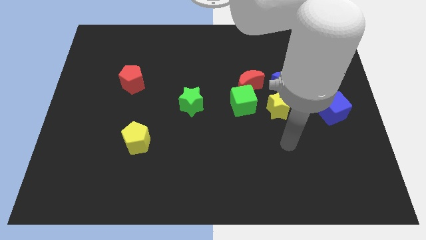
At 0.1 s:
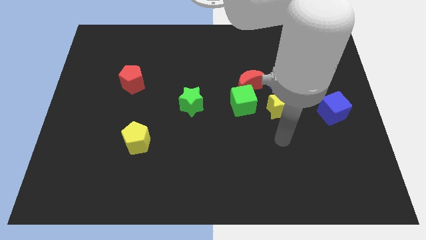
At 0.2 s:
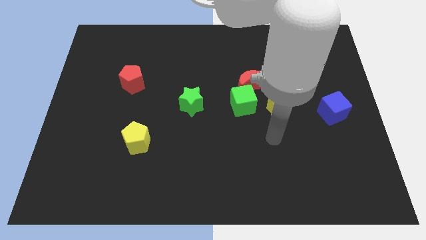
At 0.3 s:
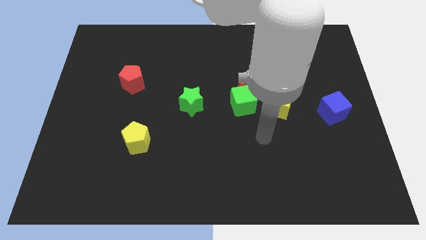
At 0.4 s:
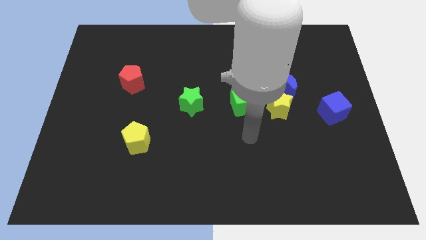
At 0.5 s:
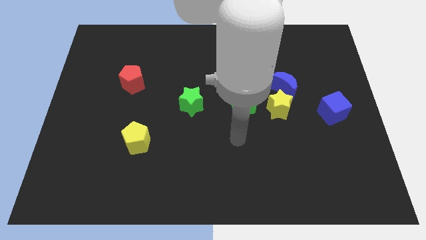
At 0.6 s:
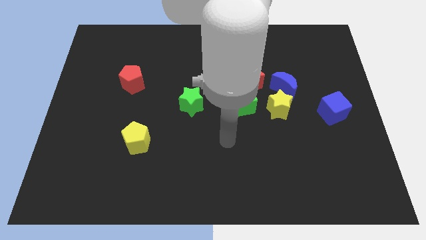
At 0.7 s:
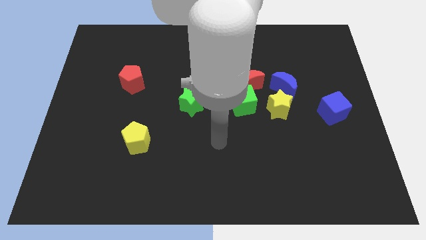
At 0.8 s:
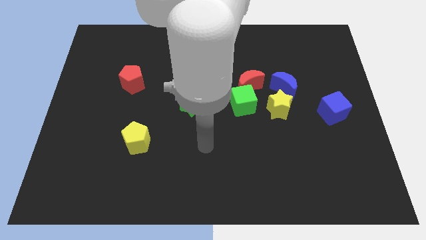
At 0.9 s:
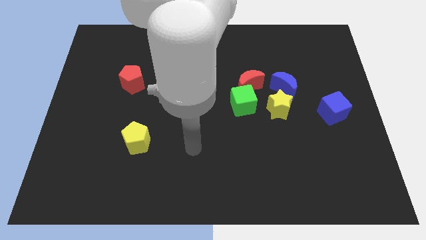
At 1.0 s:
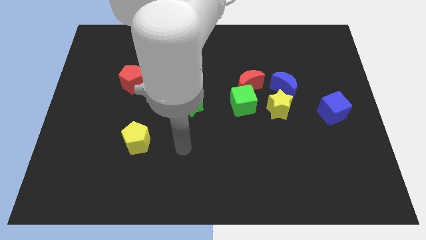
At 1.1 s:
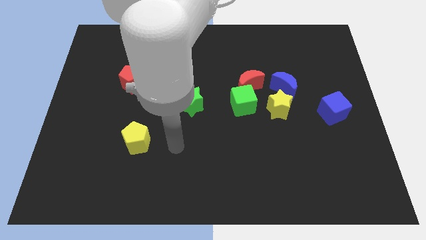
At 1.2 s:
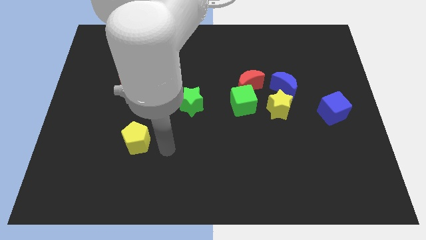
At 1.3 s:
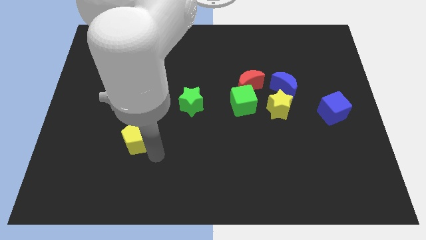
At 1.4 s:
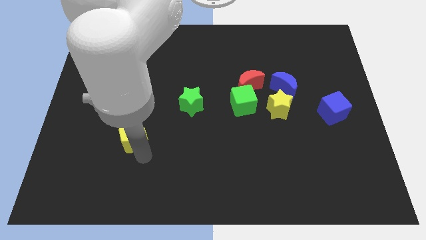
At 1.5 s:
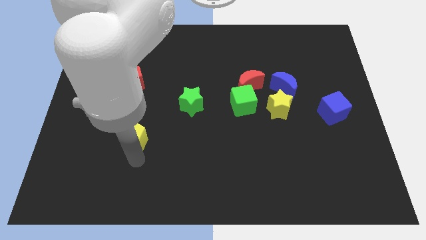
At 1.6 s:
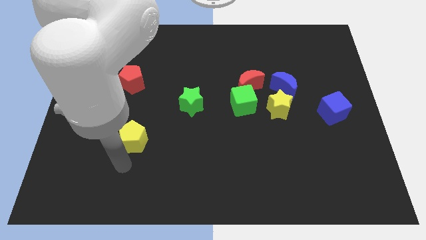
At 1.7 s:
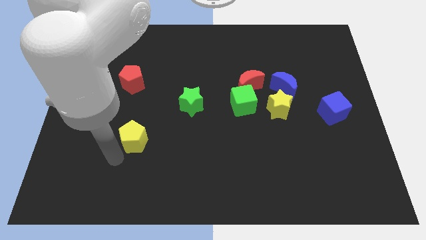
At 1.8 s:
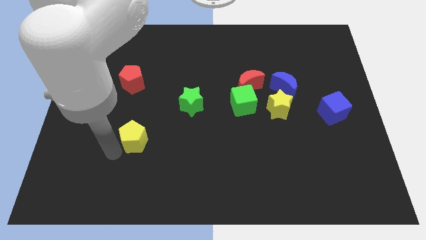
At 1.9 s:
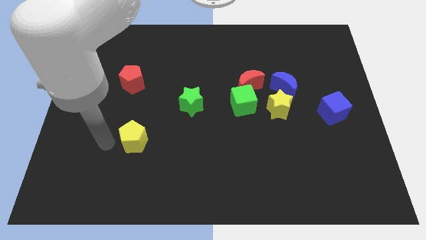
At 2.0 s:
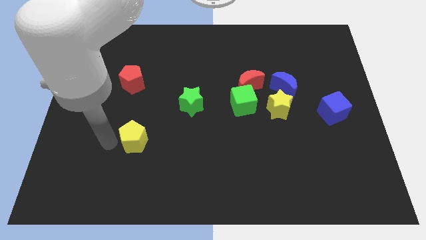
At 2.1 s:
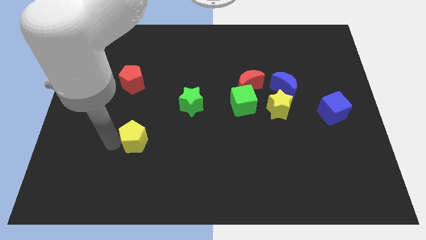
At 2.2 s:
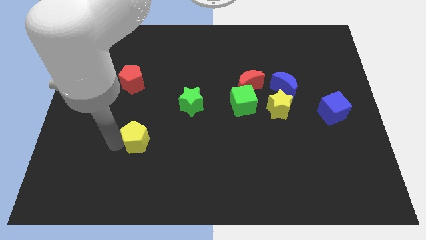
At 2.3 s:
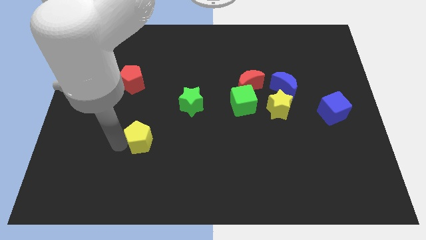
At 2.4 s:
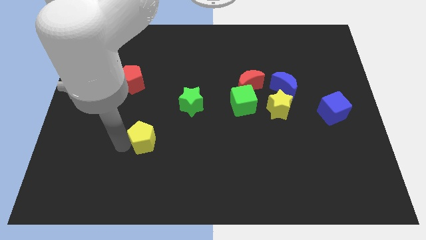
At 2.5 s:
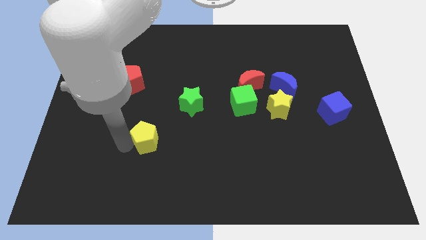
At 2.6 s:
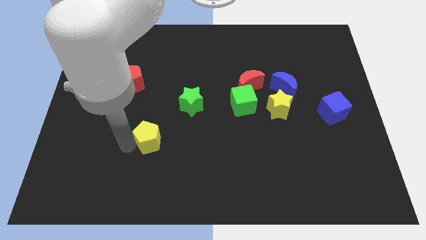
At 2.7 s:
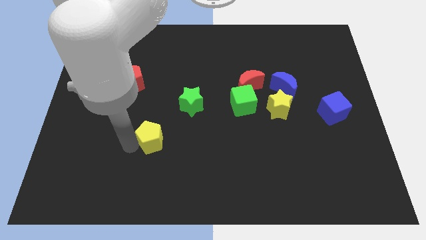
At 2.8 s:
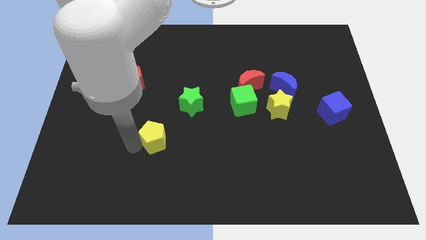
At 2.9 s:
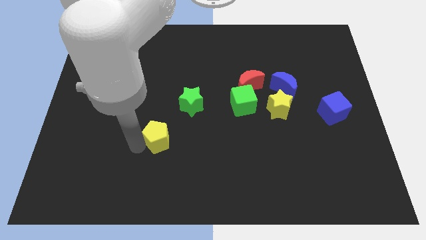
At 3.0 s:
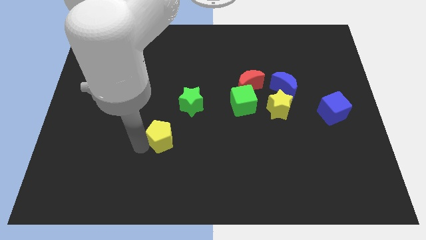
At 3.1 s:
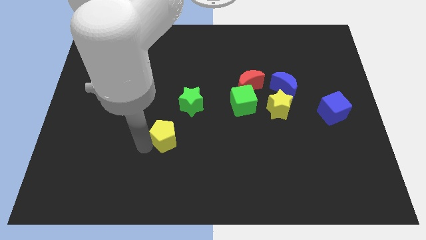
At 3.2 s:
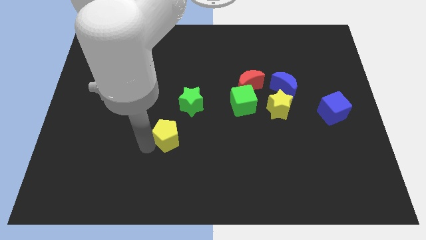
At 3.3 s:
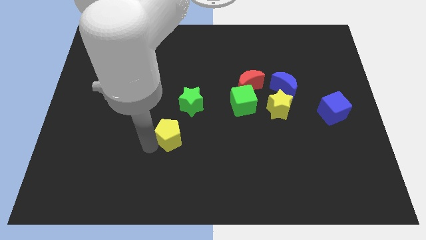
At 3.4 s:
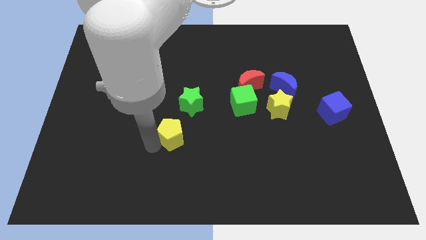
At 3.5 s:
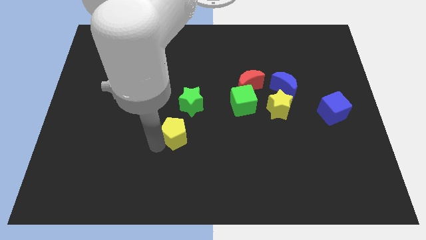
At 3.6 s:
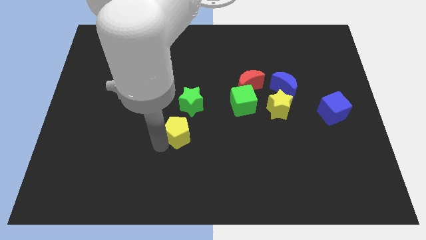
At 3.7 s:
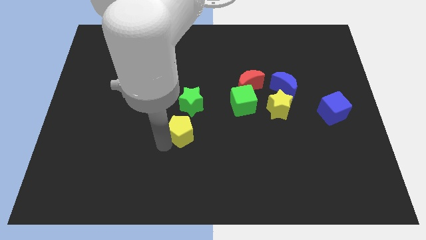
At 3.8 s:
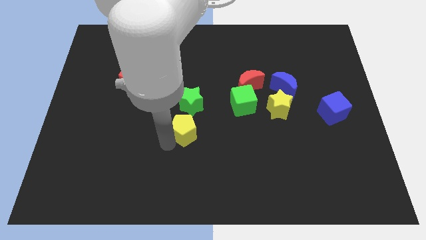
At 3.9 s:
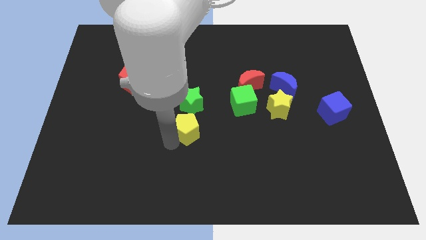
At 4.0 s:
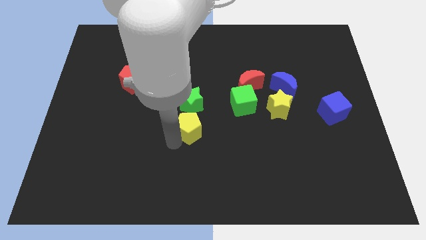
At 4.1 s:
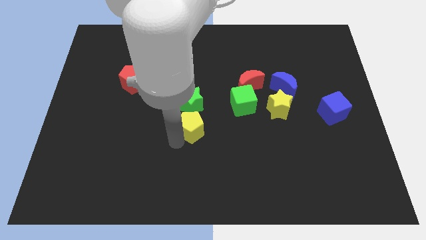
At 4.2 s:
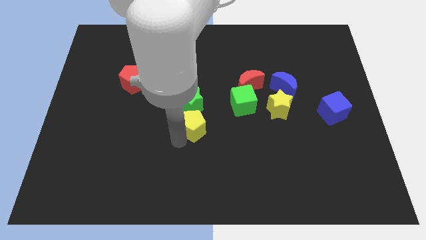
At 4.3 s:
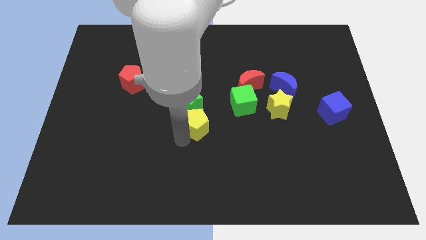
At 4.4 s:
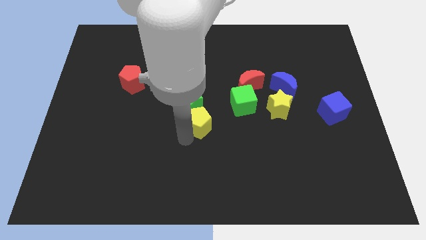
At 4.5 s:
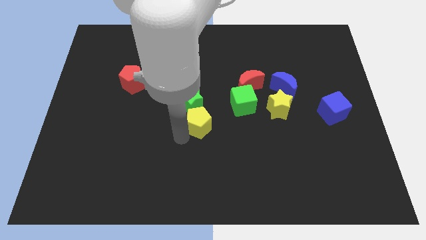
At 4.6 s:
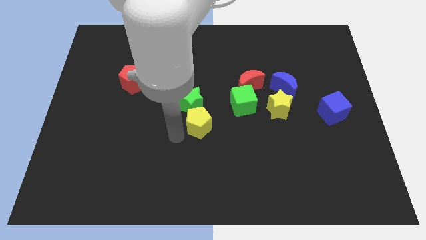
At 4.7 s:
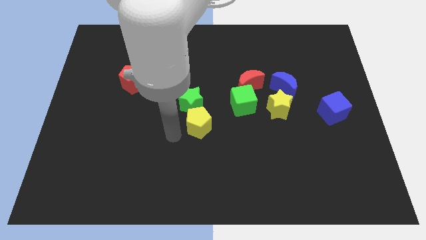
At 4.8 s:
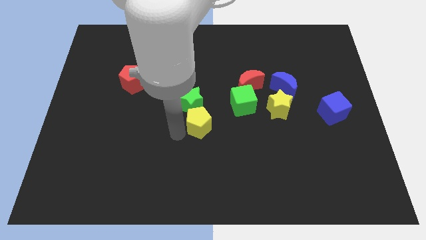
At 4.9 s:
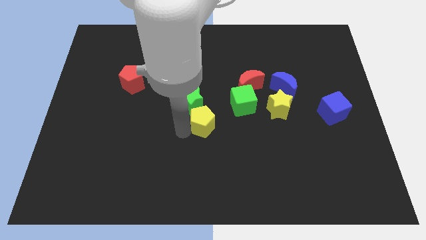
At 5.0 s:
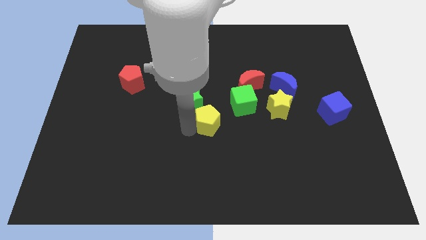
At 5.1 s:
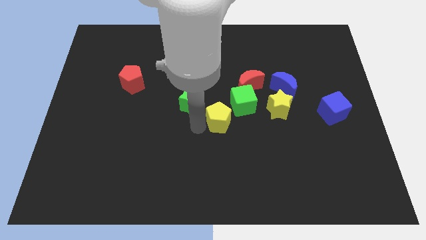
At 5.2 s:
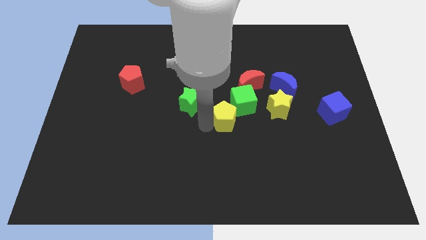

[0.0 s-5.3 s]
slide the yellow pentagon close to the green cube

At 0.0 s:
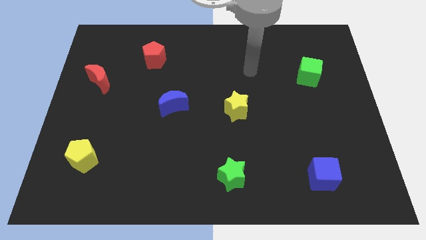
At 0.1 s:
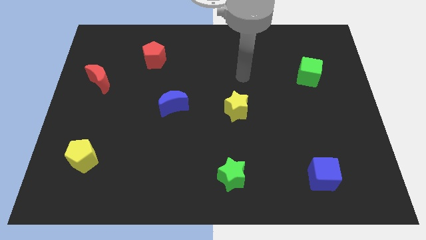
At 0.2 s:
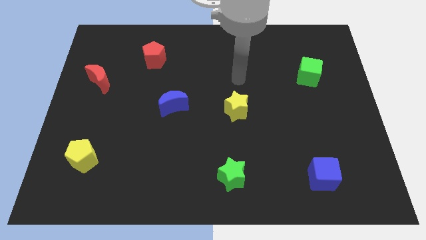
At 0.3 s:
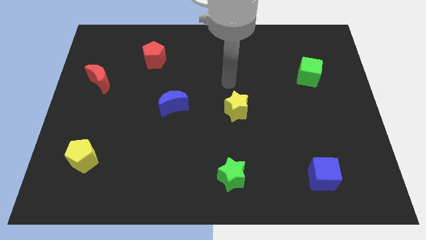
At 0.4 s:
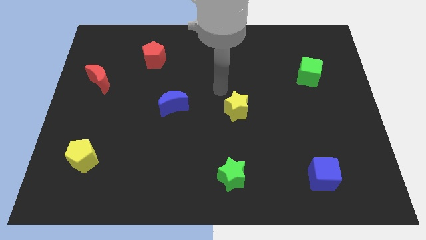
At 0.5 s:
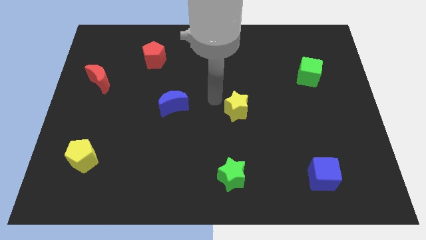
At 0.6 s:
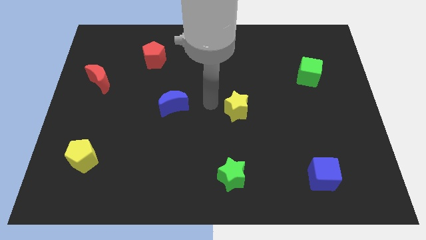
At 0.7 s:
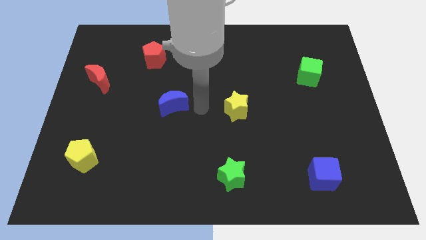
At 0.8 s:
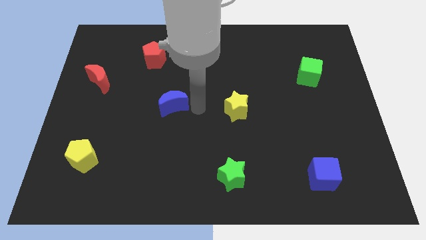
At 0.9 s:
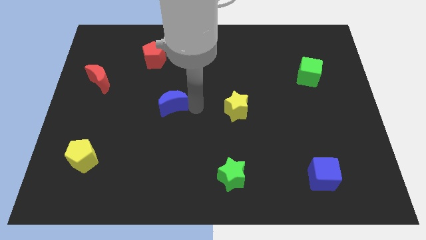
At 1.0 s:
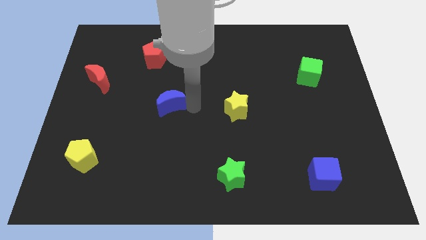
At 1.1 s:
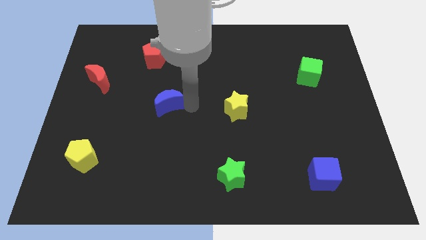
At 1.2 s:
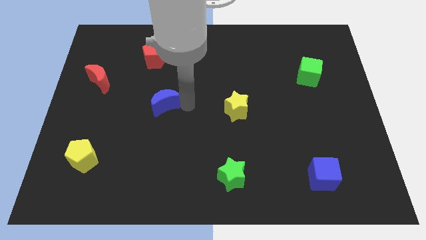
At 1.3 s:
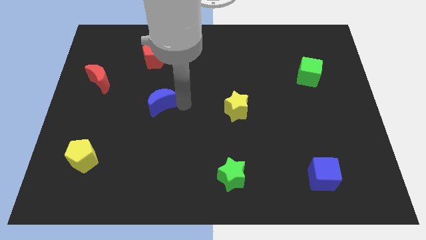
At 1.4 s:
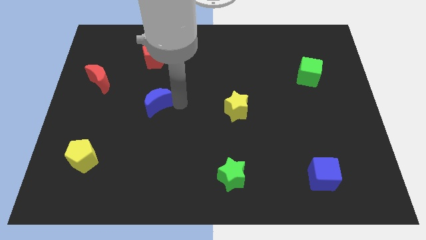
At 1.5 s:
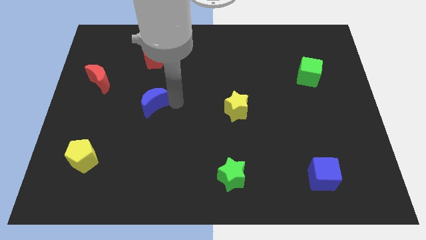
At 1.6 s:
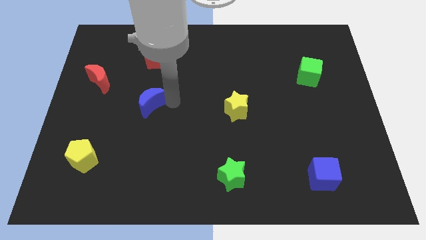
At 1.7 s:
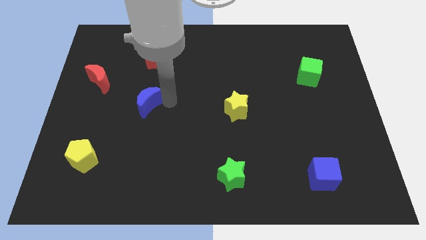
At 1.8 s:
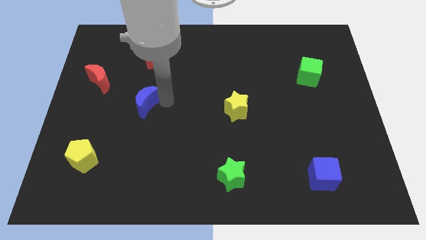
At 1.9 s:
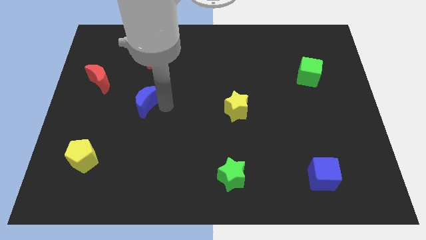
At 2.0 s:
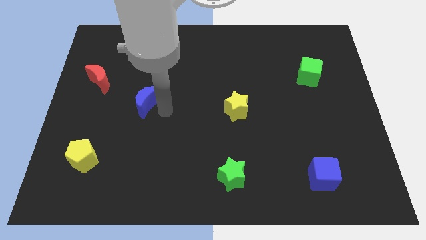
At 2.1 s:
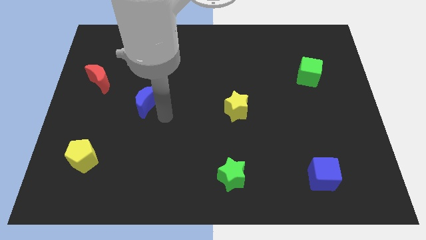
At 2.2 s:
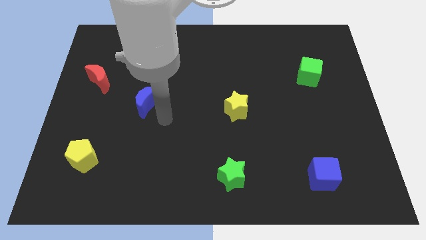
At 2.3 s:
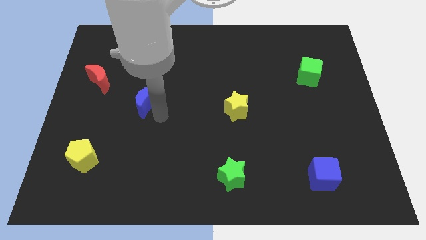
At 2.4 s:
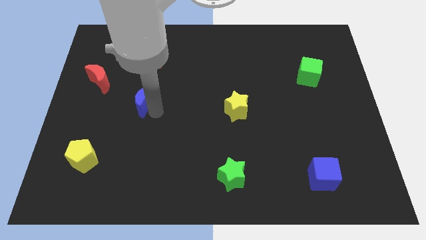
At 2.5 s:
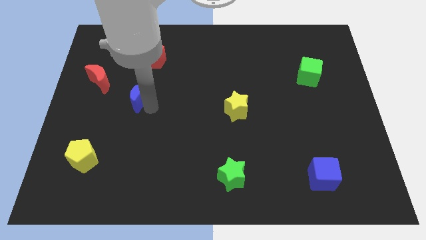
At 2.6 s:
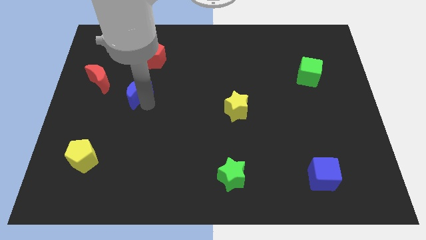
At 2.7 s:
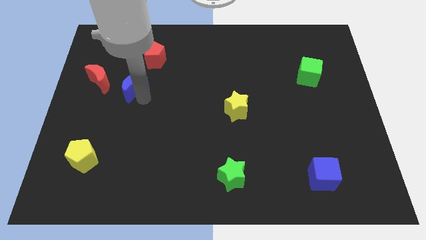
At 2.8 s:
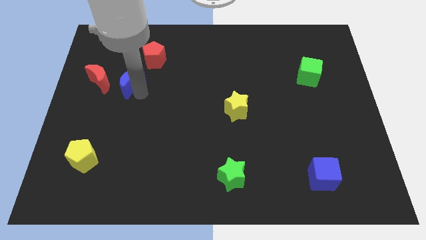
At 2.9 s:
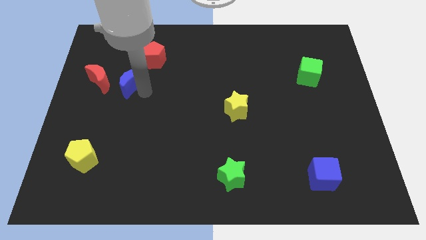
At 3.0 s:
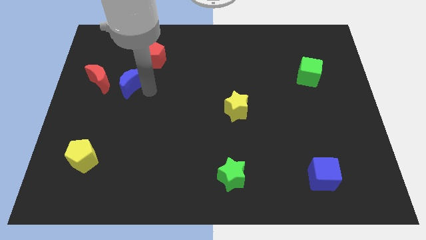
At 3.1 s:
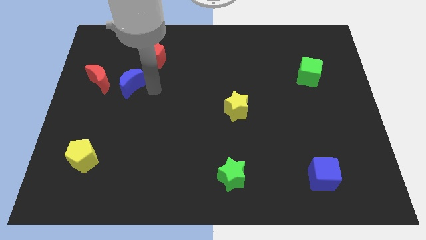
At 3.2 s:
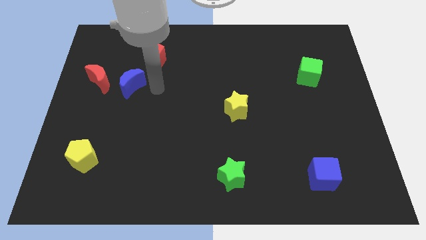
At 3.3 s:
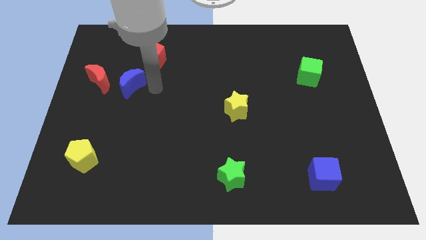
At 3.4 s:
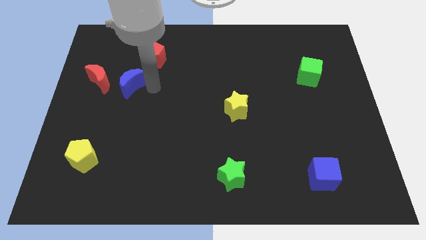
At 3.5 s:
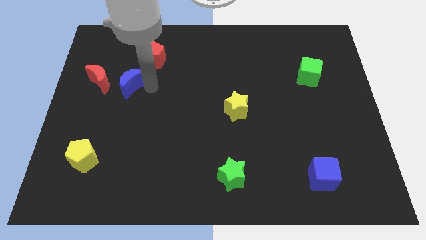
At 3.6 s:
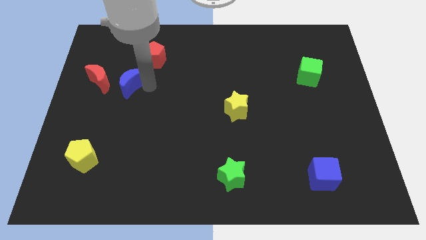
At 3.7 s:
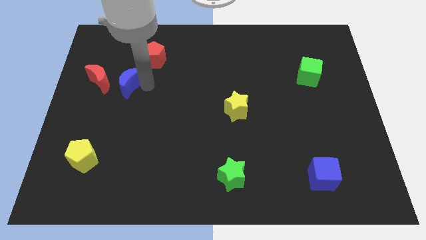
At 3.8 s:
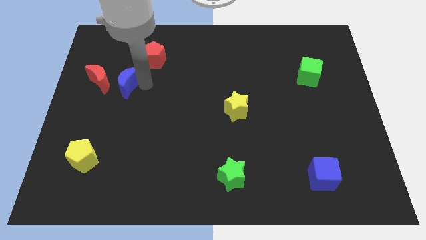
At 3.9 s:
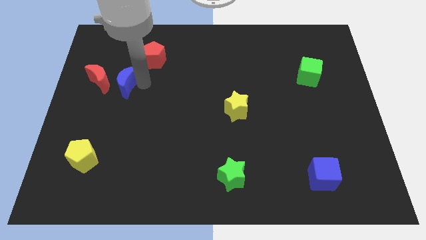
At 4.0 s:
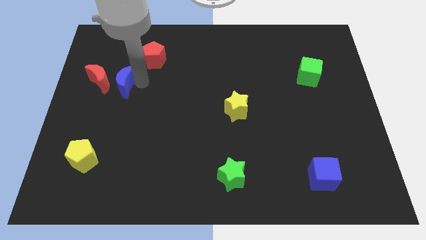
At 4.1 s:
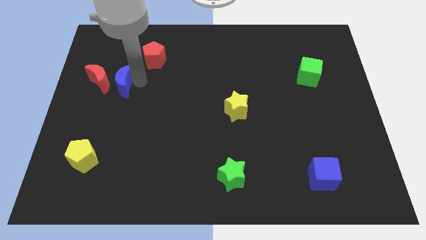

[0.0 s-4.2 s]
move the blue moon towards the red moon
